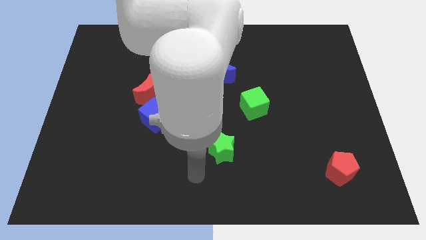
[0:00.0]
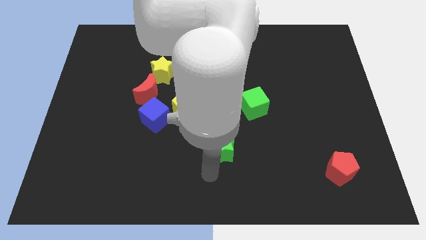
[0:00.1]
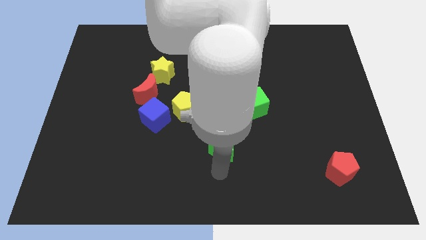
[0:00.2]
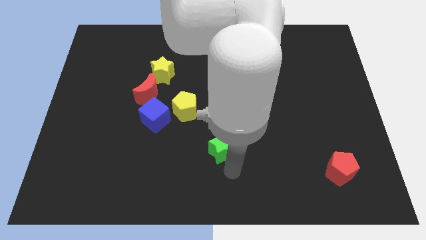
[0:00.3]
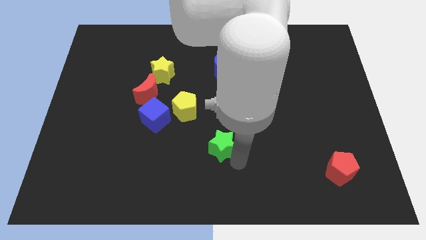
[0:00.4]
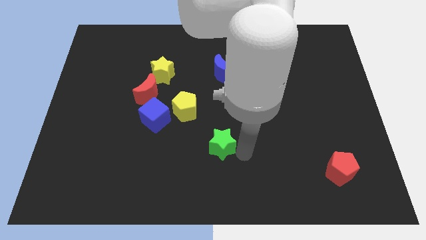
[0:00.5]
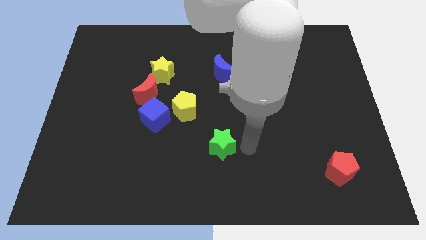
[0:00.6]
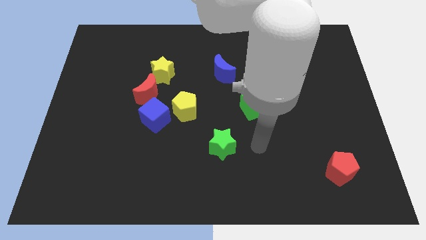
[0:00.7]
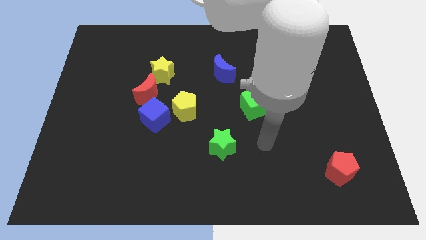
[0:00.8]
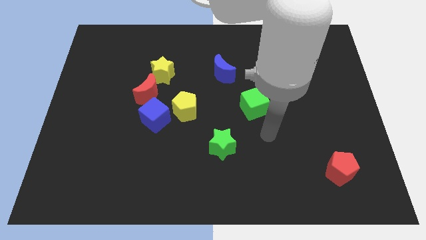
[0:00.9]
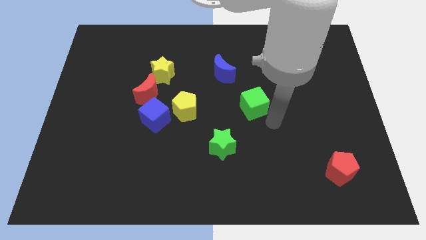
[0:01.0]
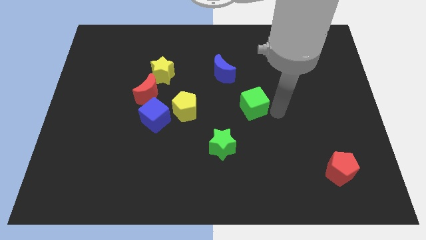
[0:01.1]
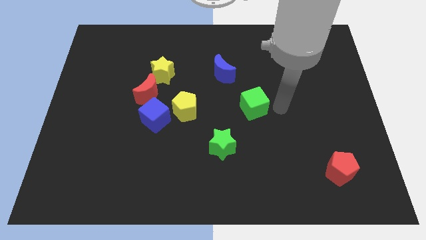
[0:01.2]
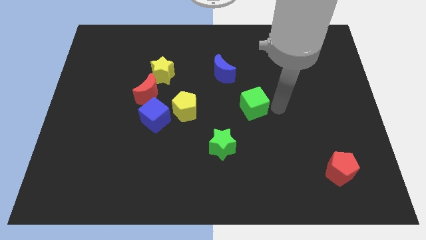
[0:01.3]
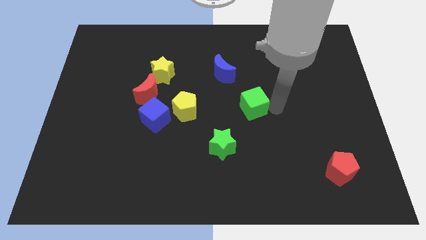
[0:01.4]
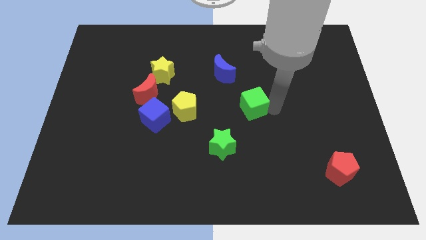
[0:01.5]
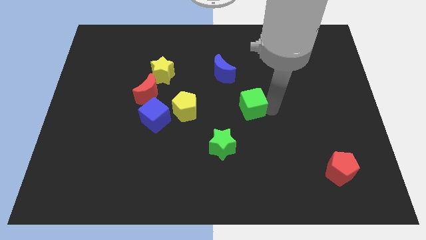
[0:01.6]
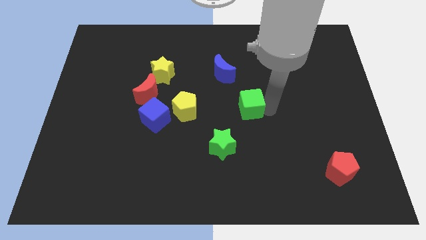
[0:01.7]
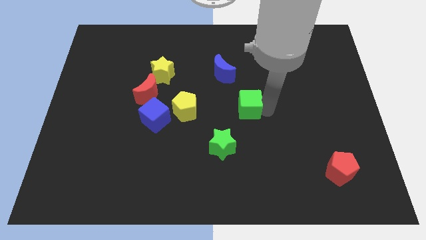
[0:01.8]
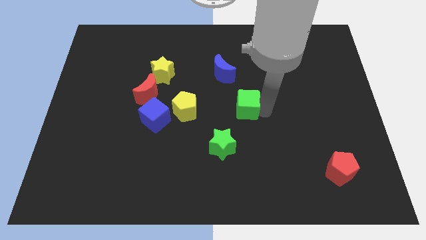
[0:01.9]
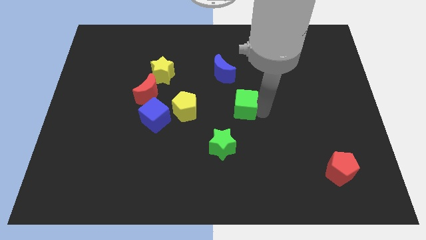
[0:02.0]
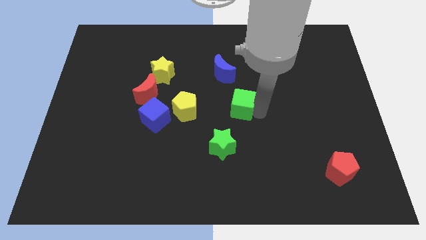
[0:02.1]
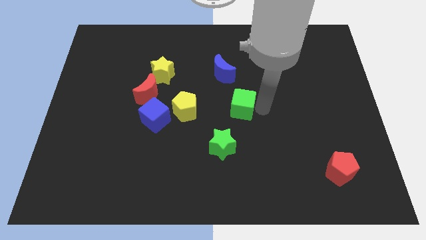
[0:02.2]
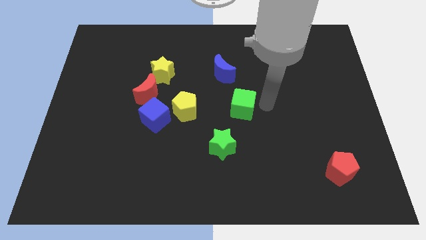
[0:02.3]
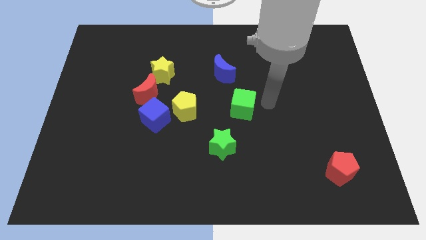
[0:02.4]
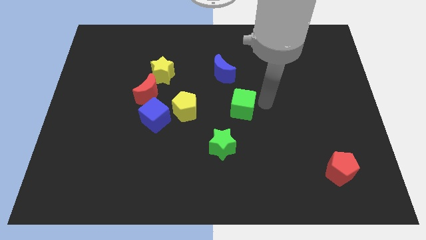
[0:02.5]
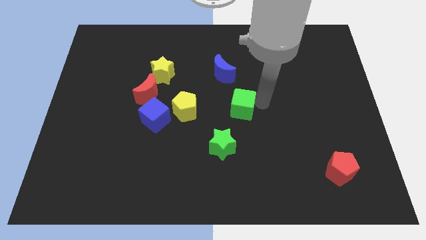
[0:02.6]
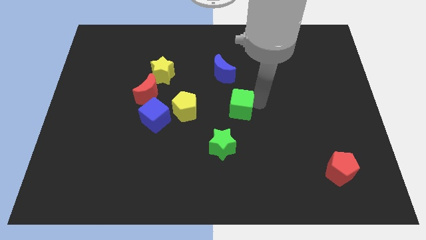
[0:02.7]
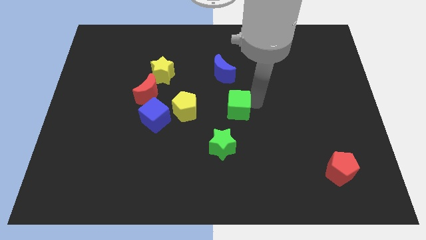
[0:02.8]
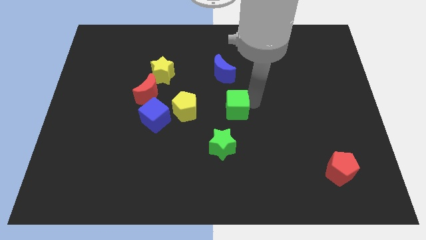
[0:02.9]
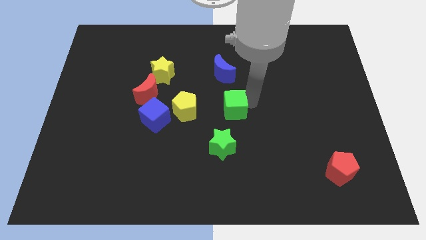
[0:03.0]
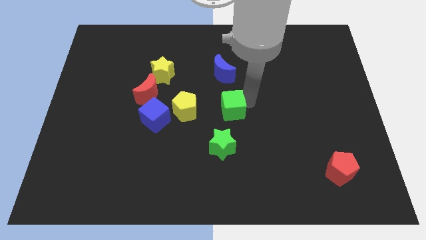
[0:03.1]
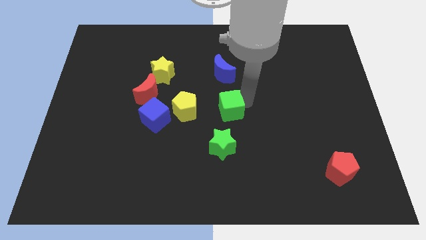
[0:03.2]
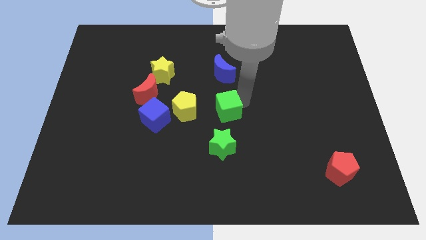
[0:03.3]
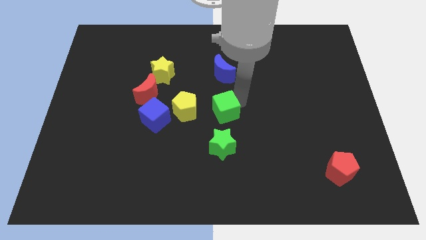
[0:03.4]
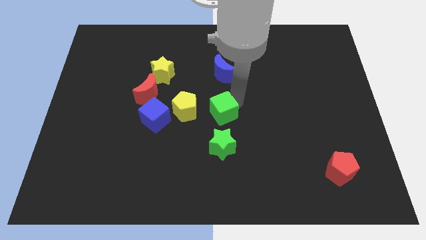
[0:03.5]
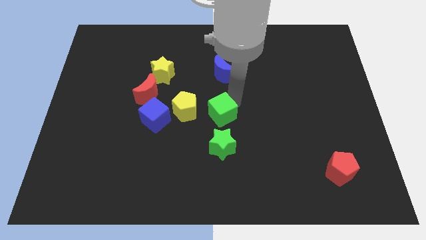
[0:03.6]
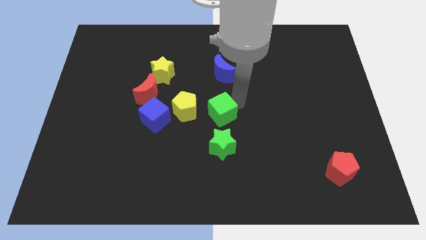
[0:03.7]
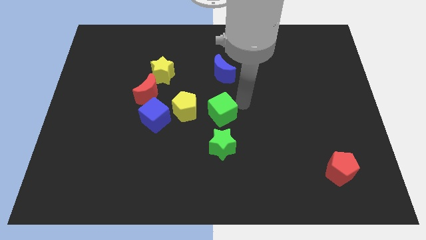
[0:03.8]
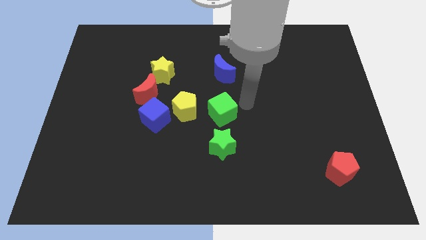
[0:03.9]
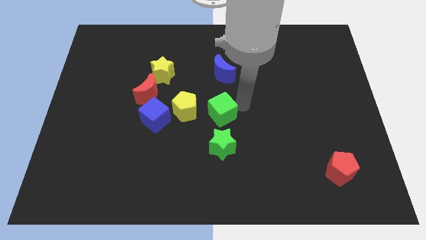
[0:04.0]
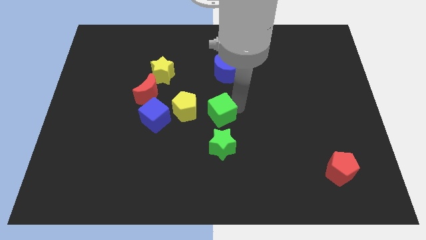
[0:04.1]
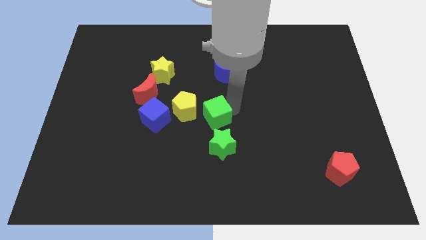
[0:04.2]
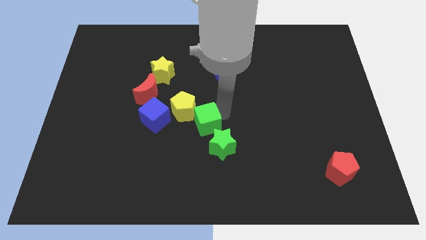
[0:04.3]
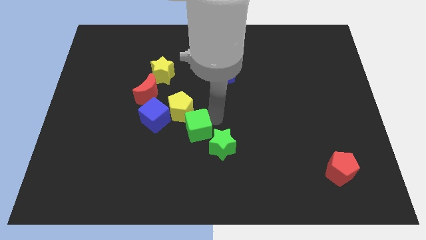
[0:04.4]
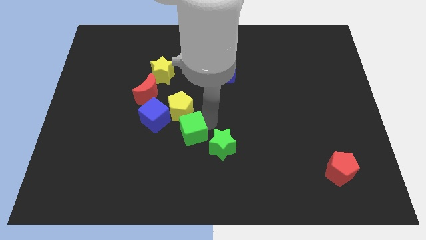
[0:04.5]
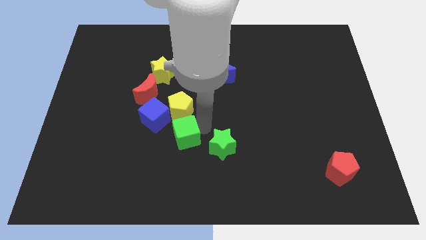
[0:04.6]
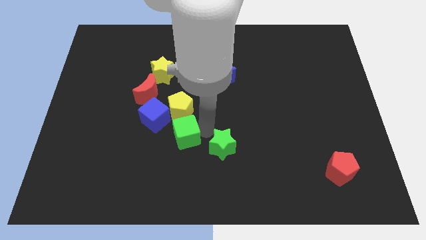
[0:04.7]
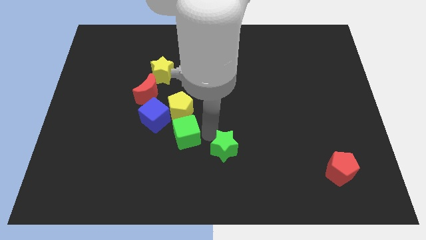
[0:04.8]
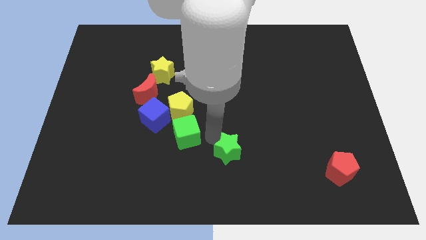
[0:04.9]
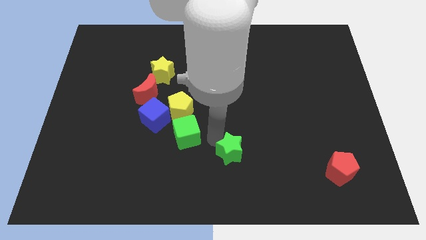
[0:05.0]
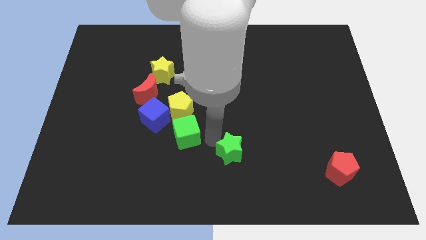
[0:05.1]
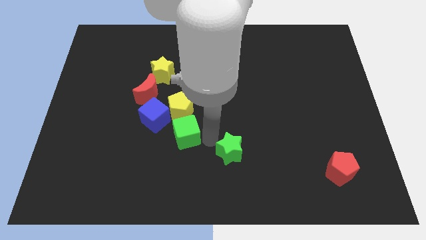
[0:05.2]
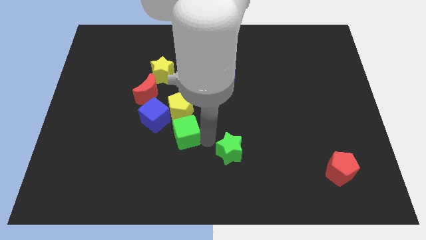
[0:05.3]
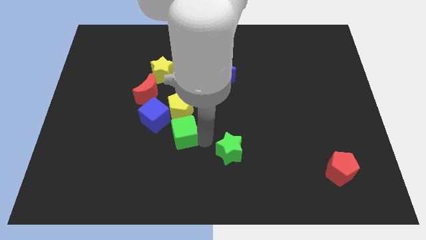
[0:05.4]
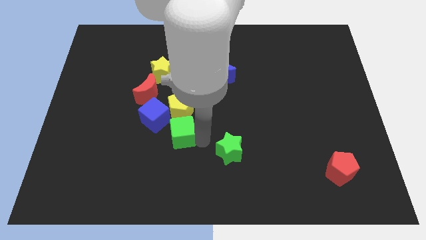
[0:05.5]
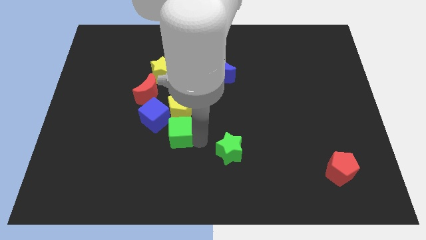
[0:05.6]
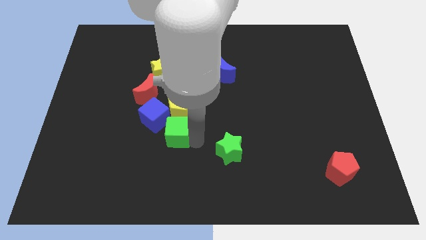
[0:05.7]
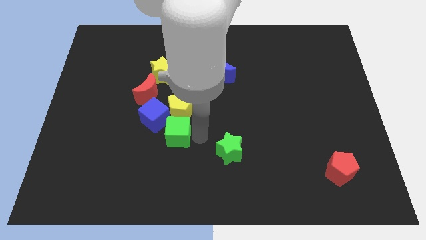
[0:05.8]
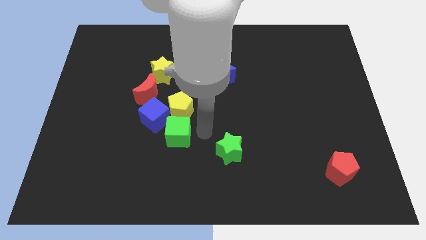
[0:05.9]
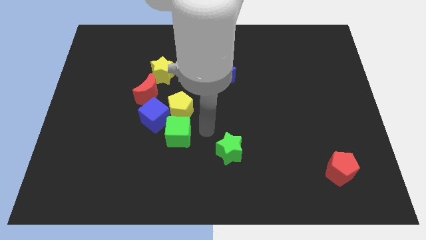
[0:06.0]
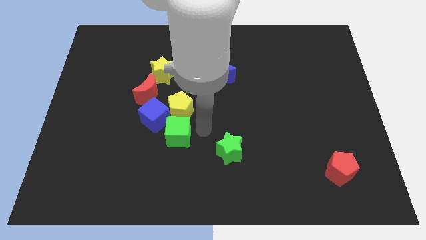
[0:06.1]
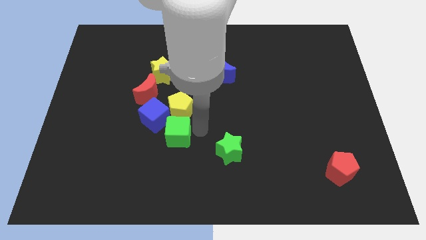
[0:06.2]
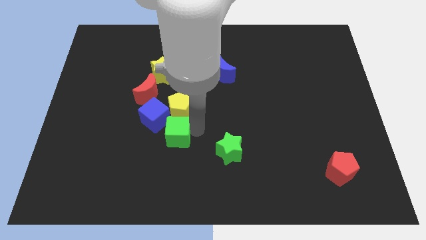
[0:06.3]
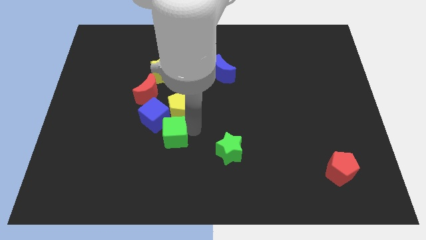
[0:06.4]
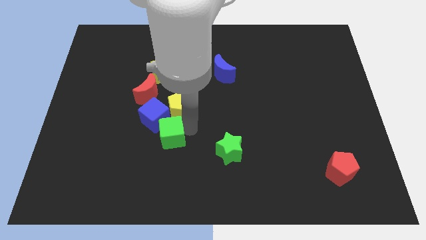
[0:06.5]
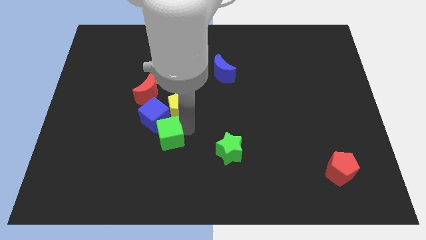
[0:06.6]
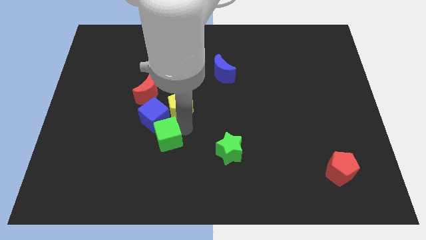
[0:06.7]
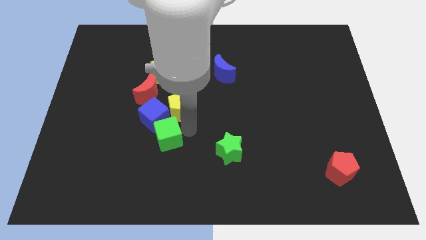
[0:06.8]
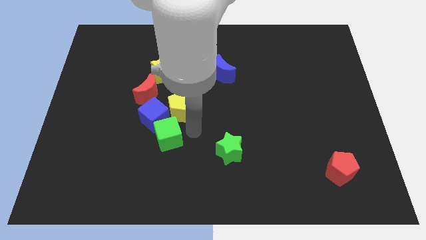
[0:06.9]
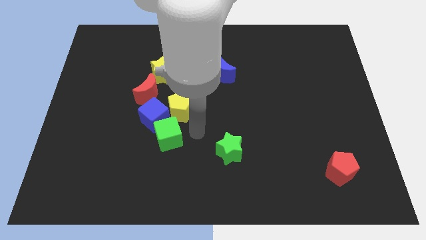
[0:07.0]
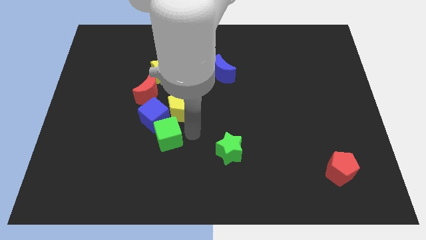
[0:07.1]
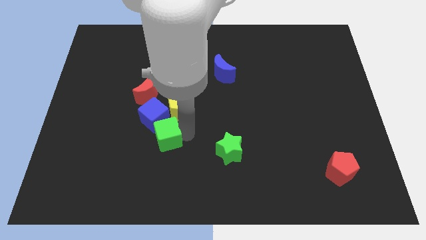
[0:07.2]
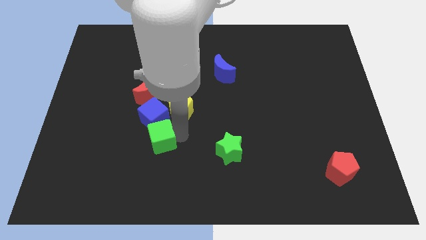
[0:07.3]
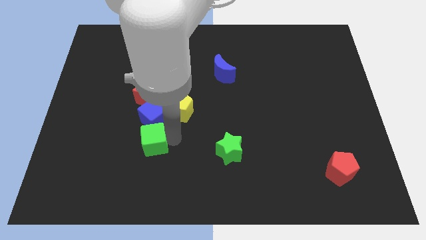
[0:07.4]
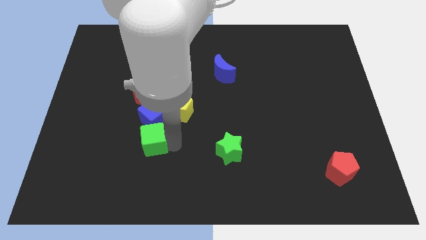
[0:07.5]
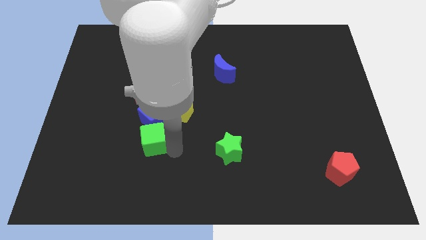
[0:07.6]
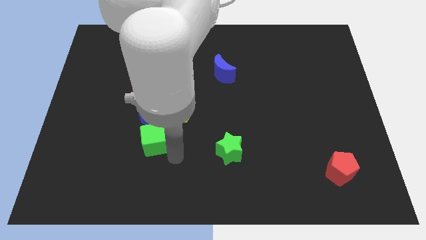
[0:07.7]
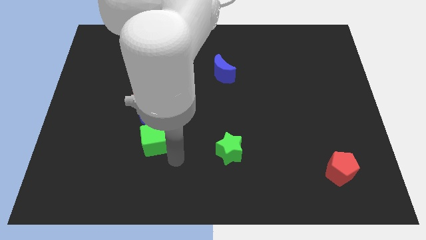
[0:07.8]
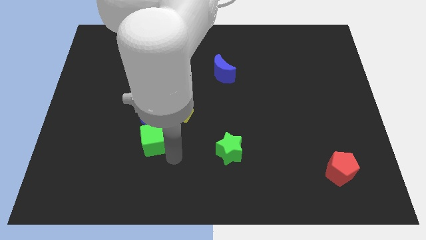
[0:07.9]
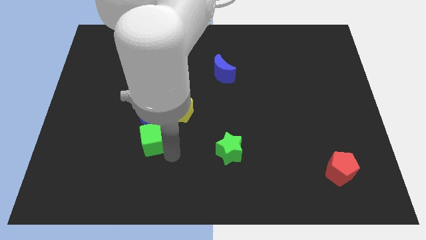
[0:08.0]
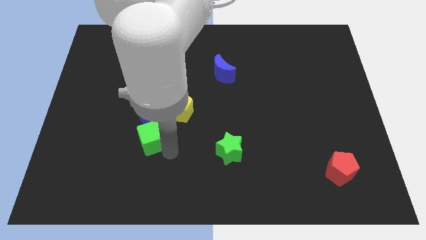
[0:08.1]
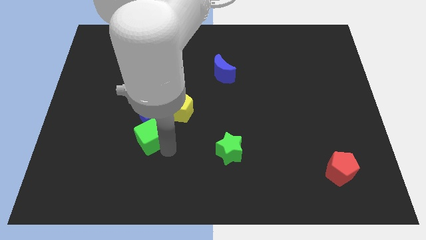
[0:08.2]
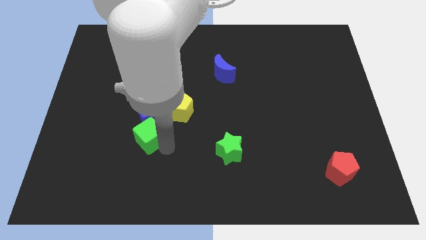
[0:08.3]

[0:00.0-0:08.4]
slide the green cube to the left
